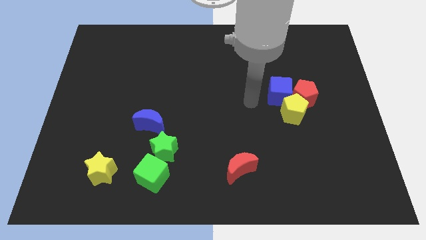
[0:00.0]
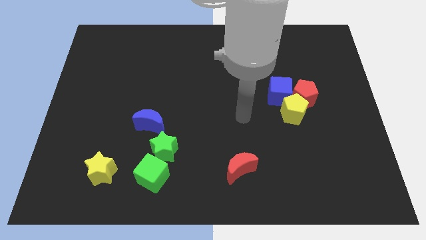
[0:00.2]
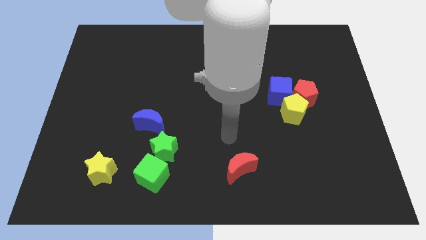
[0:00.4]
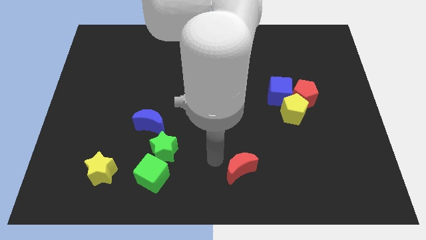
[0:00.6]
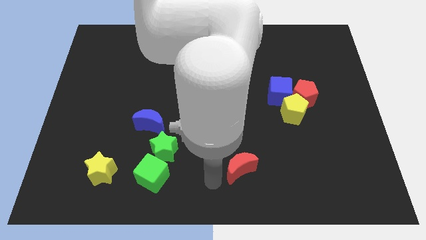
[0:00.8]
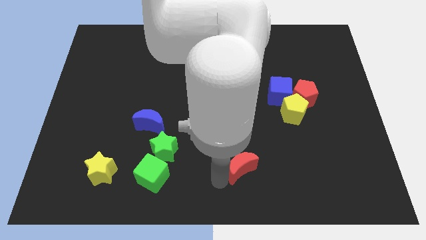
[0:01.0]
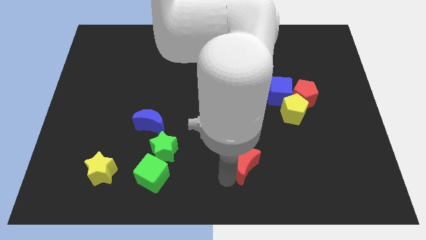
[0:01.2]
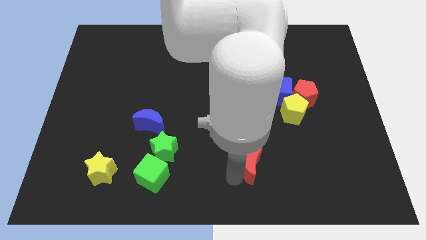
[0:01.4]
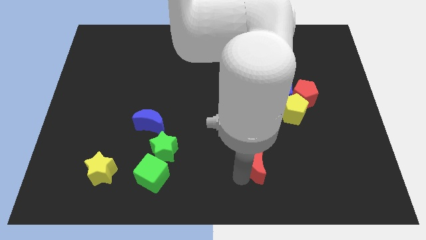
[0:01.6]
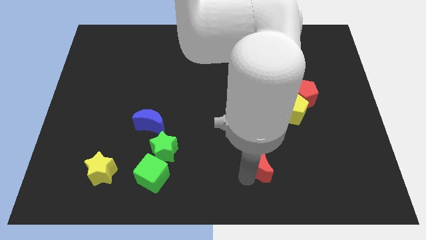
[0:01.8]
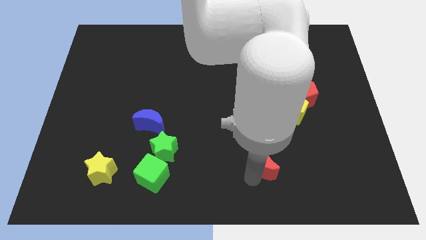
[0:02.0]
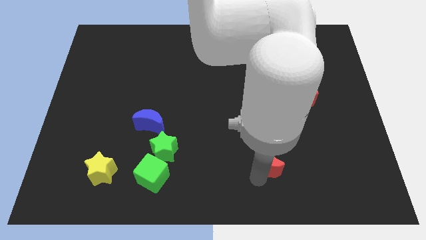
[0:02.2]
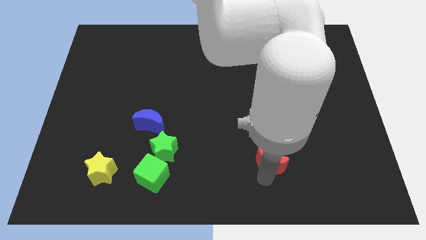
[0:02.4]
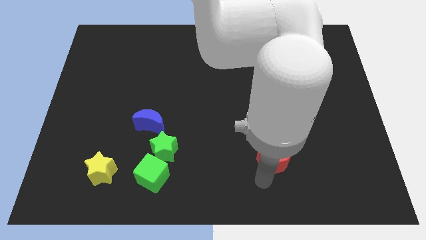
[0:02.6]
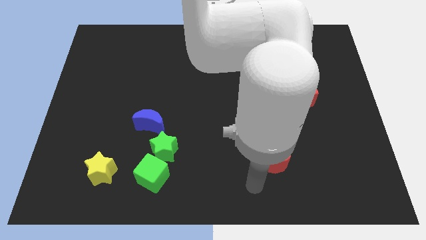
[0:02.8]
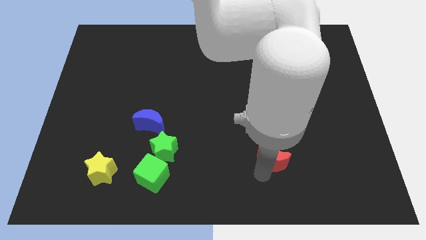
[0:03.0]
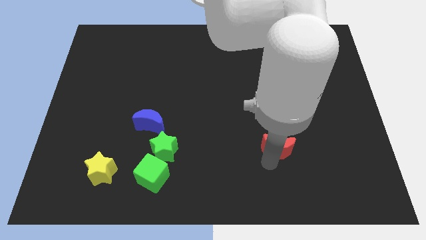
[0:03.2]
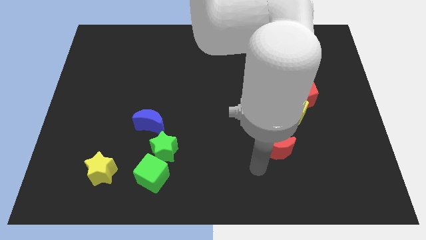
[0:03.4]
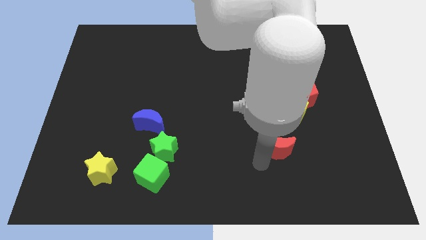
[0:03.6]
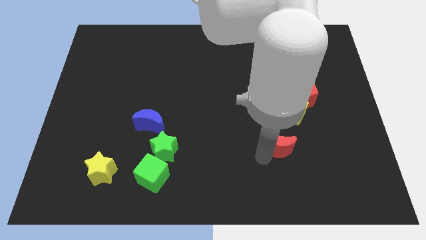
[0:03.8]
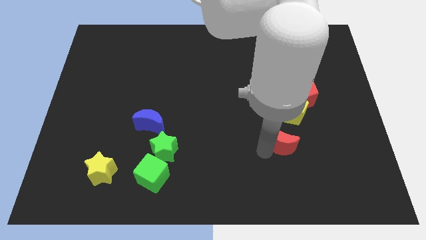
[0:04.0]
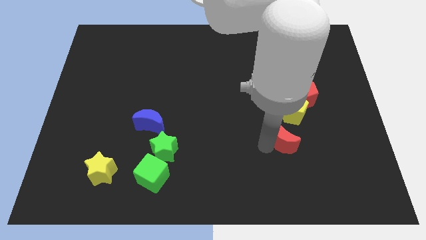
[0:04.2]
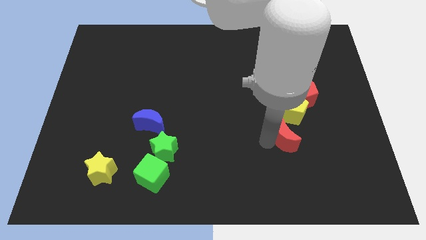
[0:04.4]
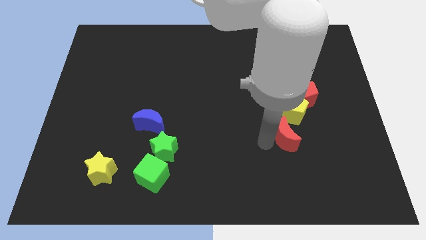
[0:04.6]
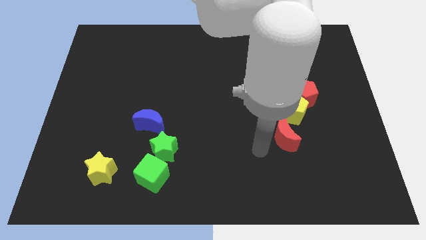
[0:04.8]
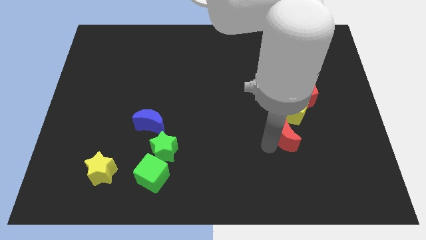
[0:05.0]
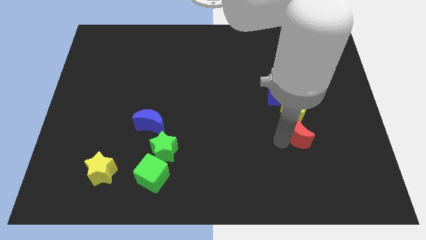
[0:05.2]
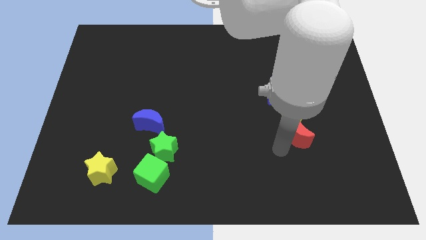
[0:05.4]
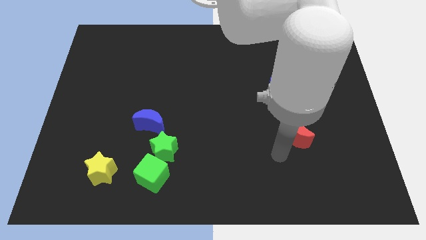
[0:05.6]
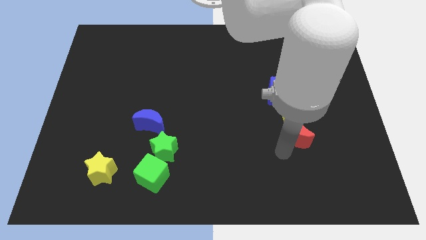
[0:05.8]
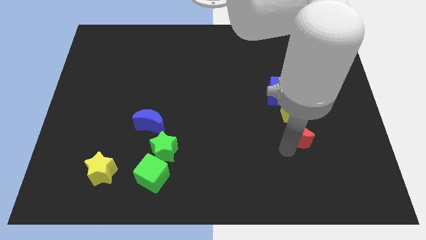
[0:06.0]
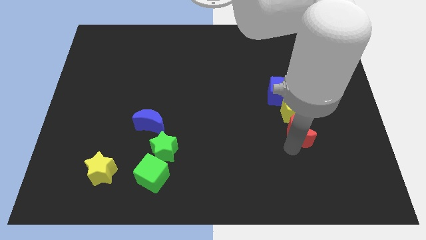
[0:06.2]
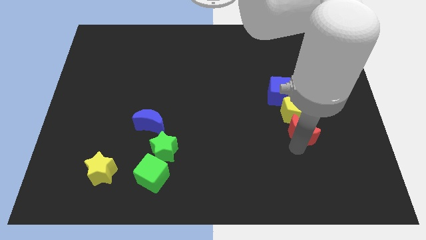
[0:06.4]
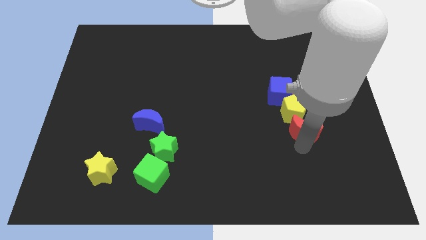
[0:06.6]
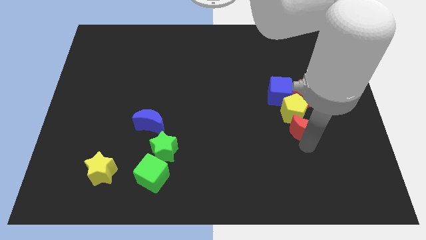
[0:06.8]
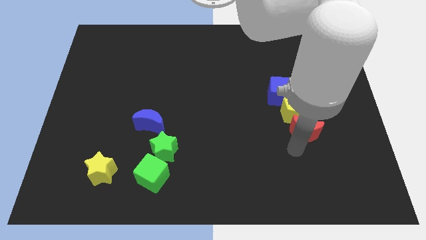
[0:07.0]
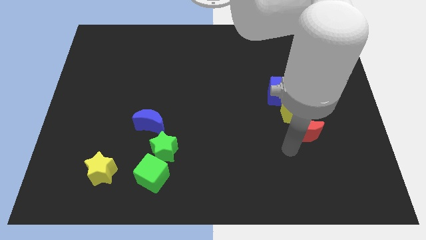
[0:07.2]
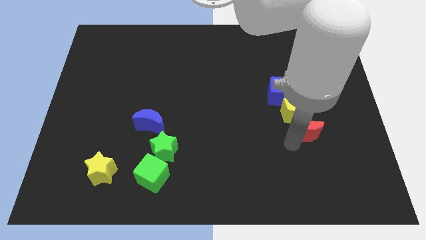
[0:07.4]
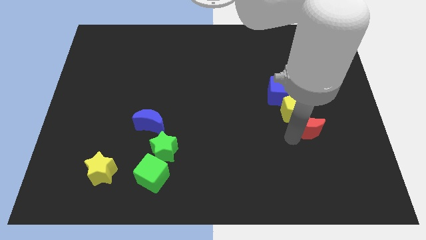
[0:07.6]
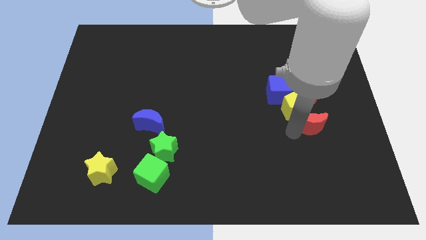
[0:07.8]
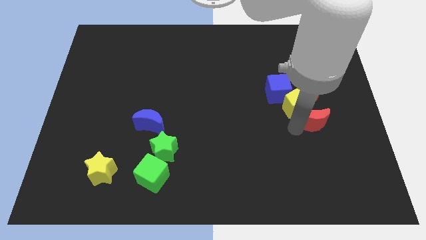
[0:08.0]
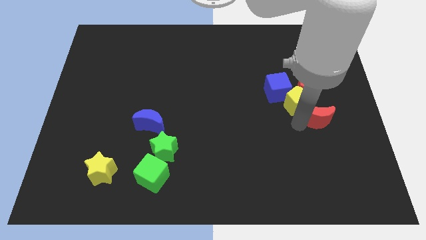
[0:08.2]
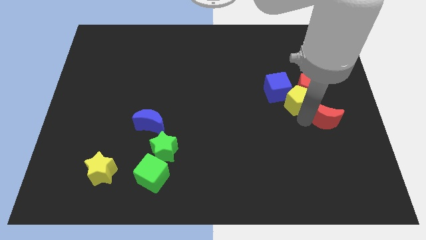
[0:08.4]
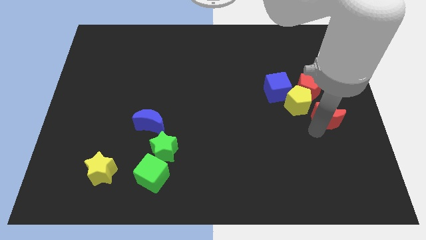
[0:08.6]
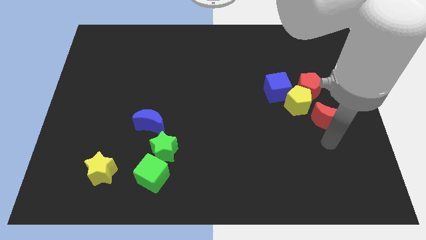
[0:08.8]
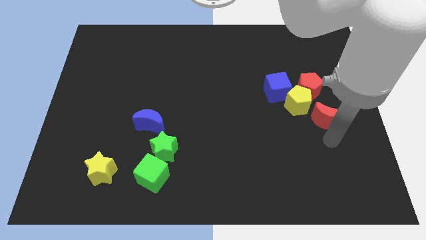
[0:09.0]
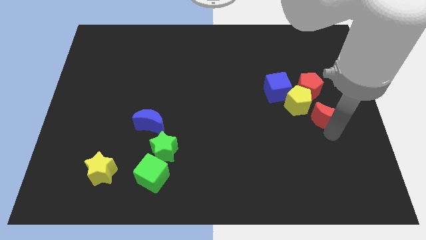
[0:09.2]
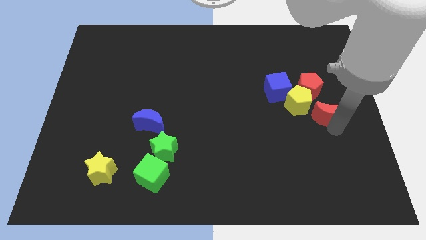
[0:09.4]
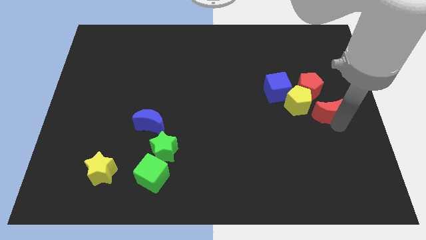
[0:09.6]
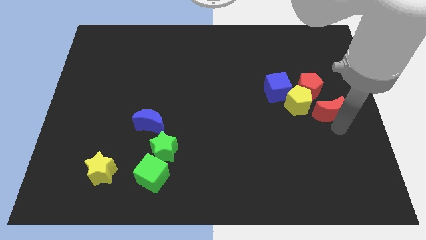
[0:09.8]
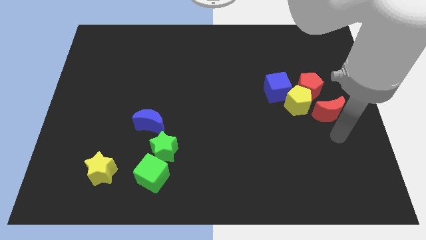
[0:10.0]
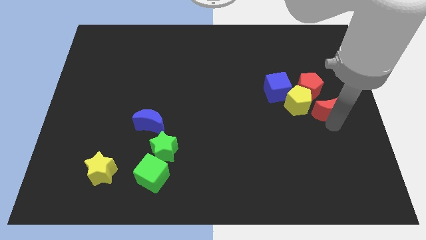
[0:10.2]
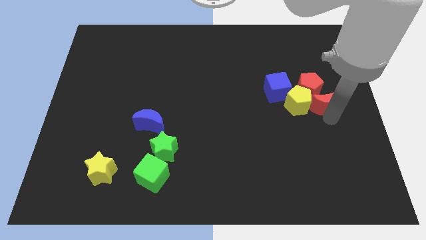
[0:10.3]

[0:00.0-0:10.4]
put the red moon to the right side of the blue cube

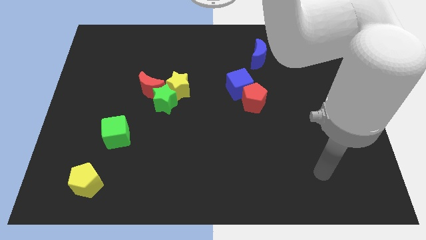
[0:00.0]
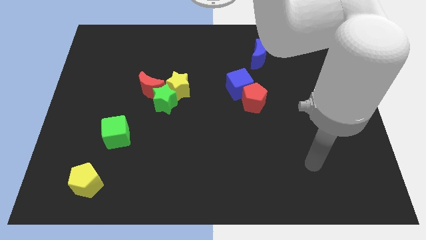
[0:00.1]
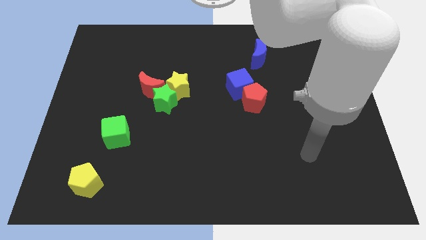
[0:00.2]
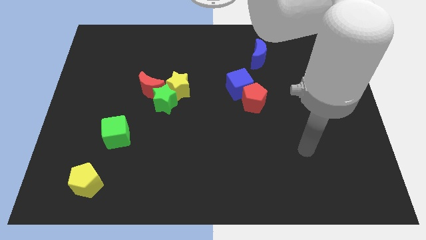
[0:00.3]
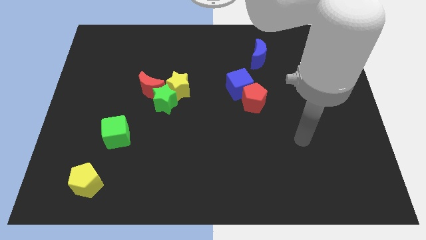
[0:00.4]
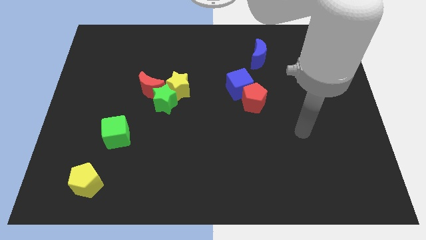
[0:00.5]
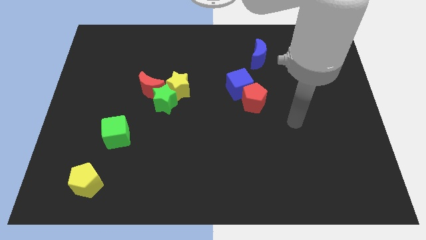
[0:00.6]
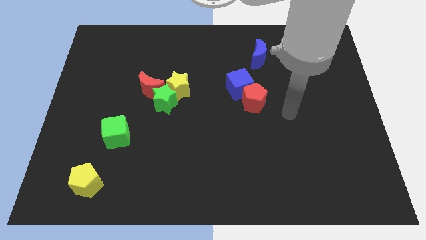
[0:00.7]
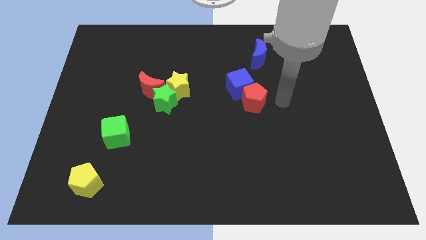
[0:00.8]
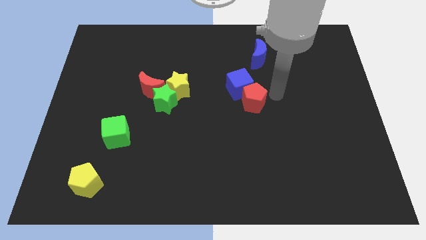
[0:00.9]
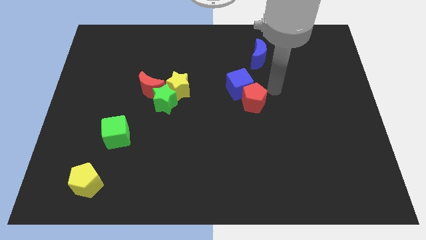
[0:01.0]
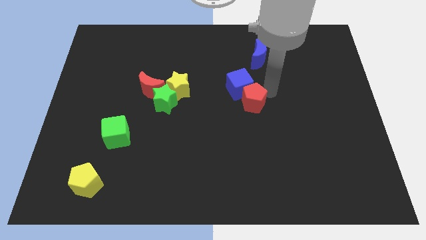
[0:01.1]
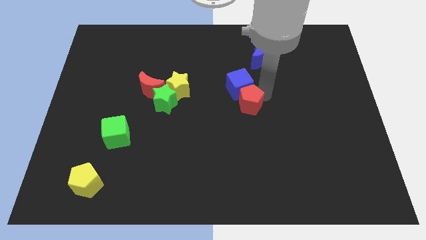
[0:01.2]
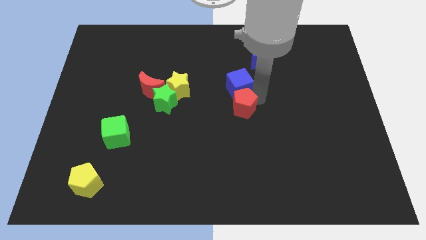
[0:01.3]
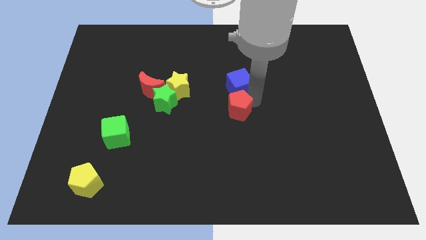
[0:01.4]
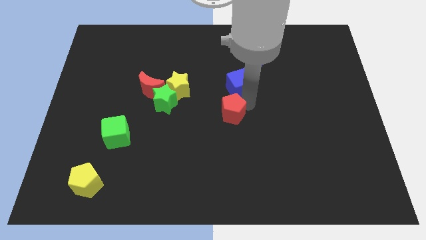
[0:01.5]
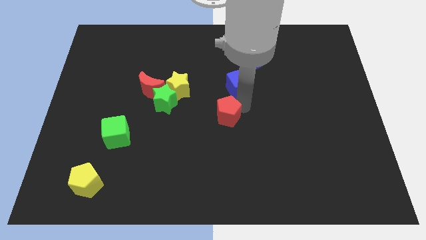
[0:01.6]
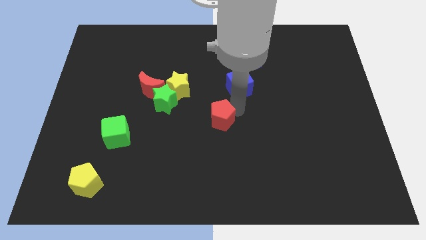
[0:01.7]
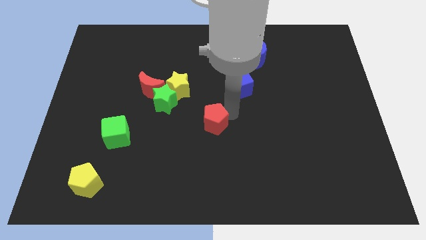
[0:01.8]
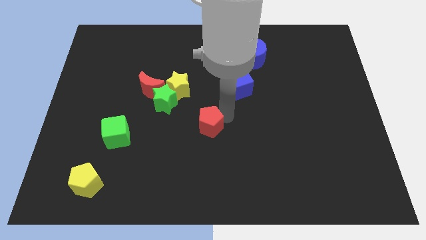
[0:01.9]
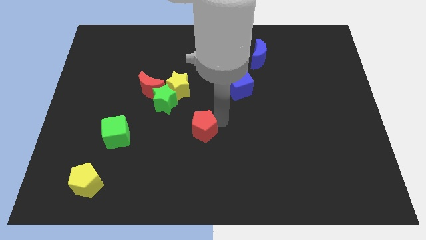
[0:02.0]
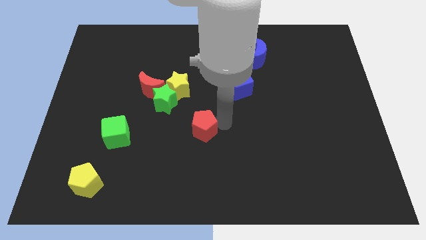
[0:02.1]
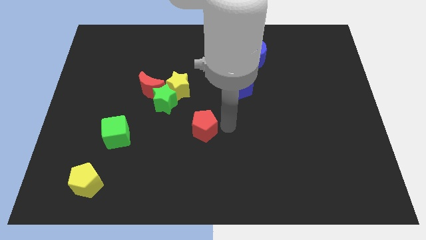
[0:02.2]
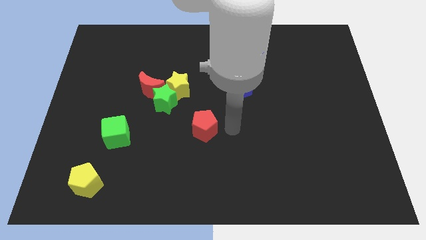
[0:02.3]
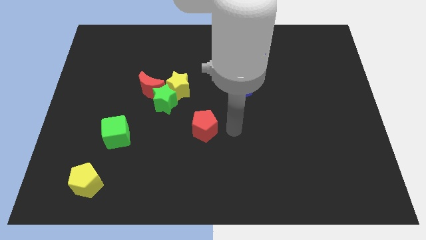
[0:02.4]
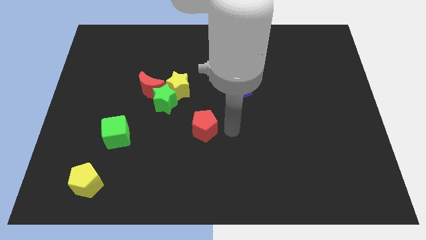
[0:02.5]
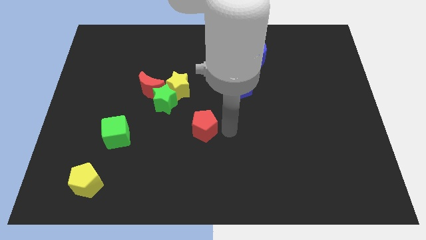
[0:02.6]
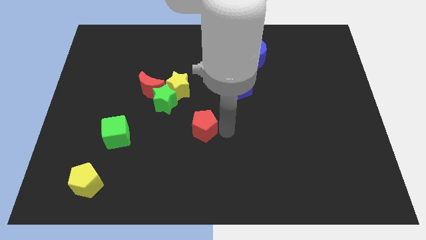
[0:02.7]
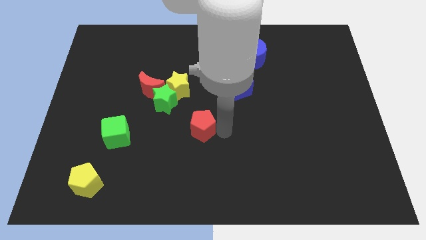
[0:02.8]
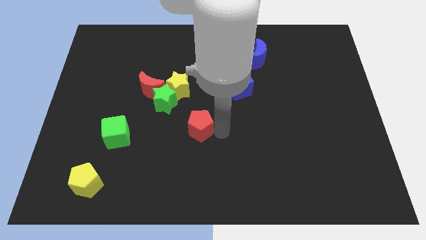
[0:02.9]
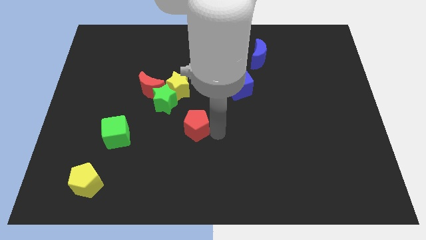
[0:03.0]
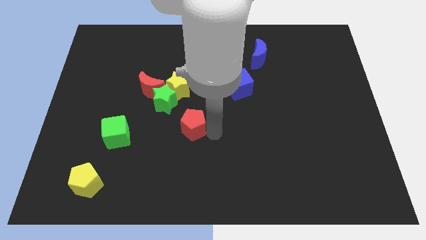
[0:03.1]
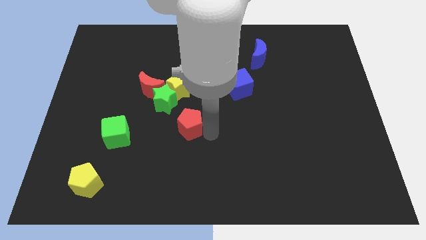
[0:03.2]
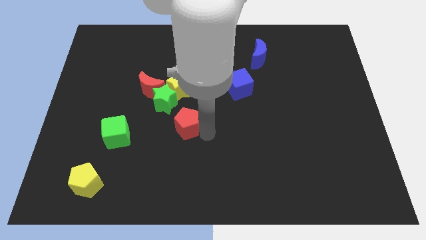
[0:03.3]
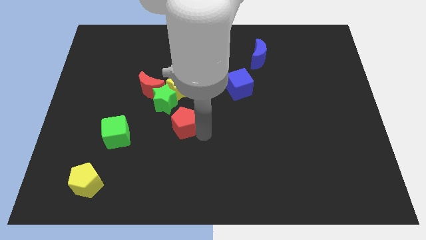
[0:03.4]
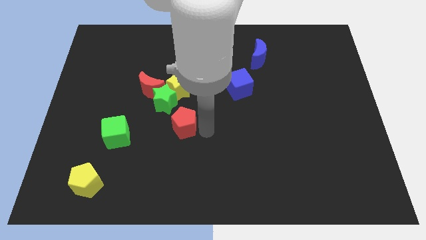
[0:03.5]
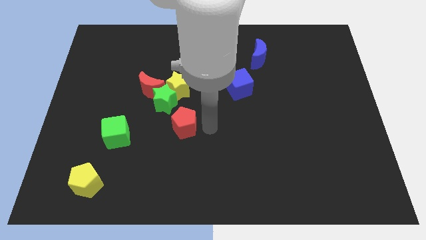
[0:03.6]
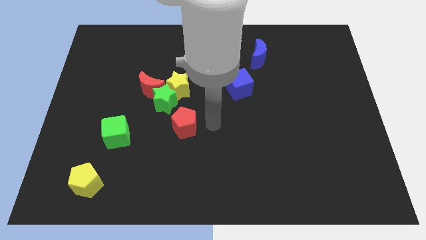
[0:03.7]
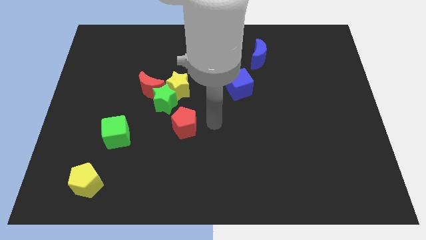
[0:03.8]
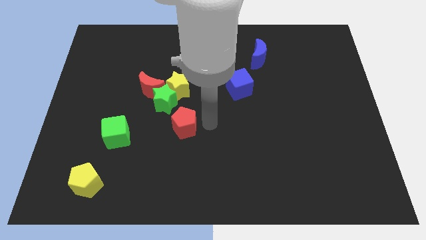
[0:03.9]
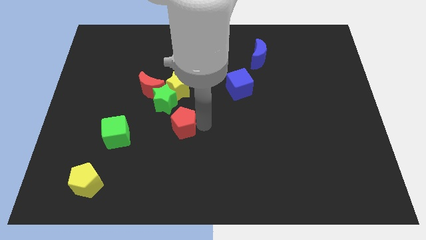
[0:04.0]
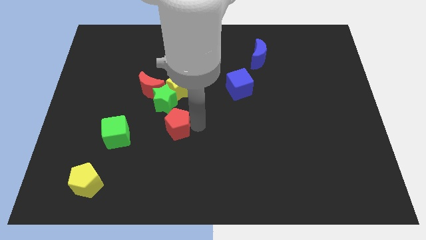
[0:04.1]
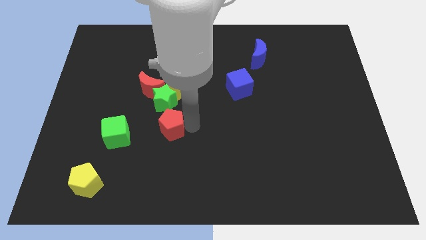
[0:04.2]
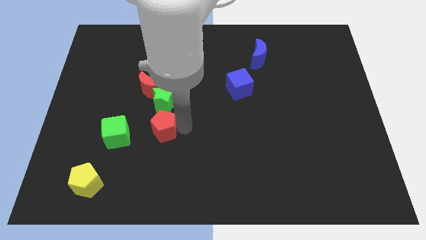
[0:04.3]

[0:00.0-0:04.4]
put the red pentagon to the bottom side of the red moon
